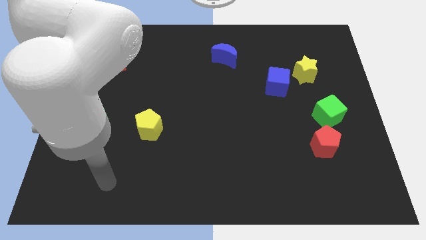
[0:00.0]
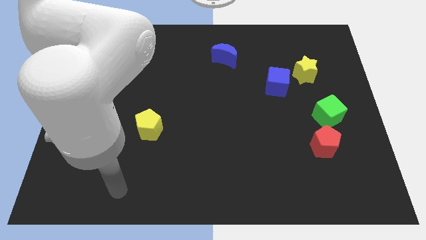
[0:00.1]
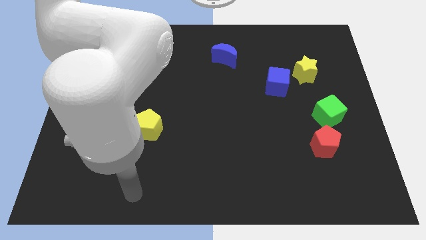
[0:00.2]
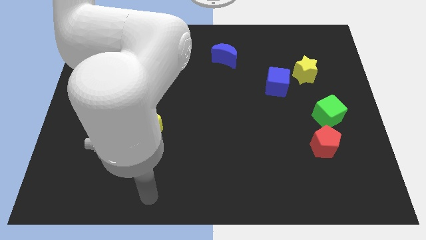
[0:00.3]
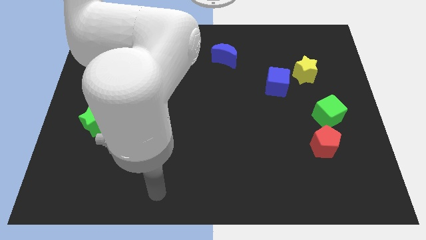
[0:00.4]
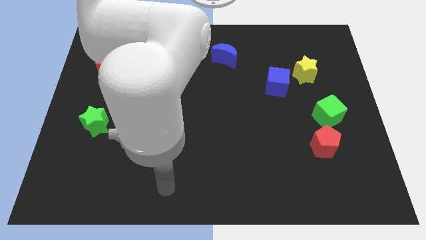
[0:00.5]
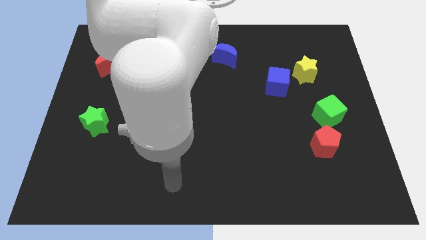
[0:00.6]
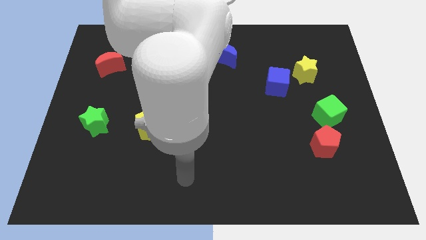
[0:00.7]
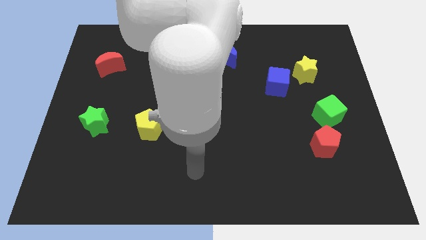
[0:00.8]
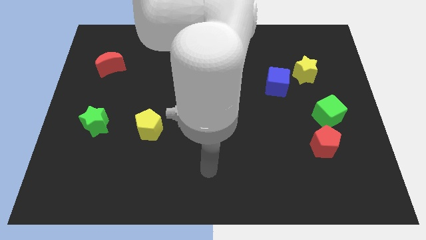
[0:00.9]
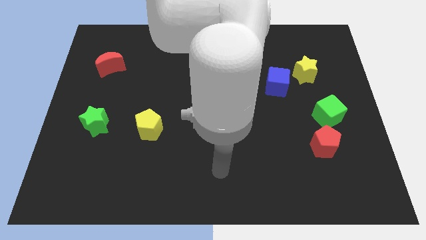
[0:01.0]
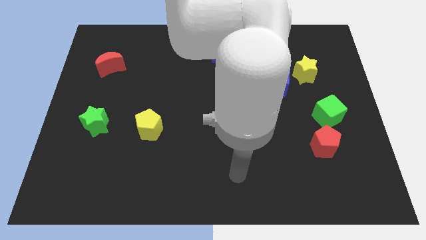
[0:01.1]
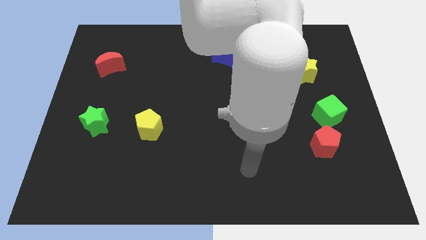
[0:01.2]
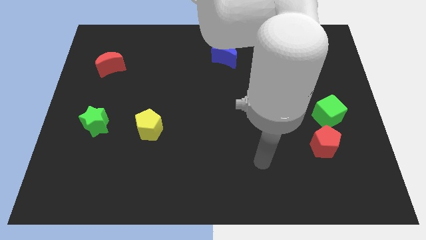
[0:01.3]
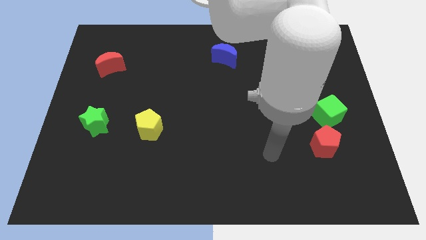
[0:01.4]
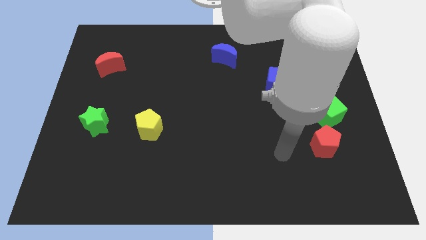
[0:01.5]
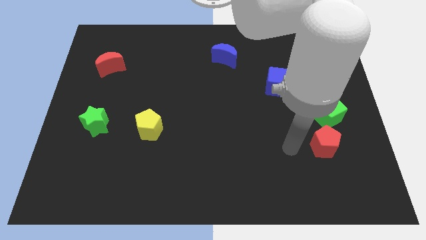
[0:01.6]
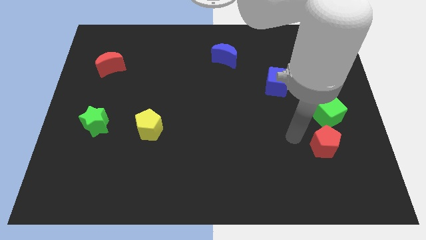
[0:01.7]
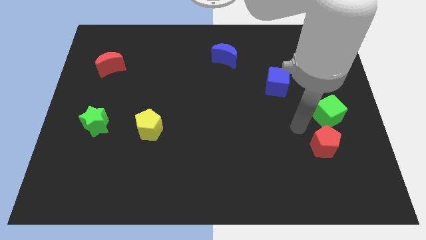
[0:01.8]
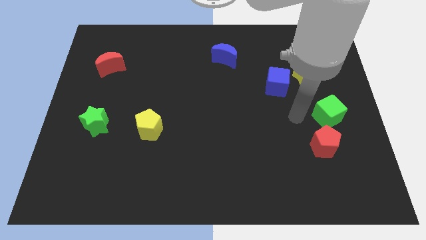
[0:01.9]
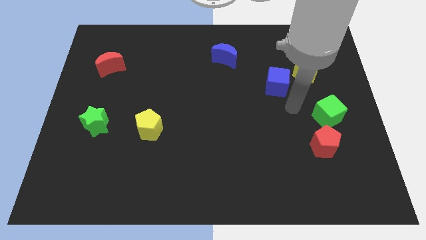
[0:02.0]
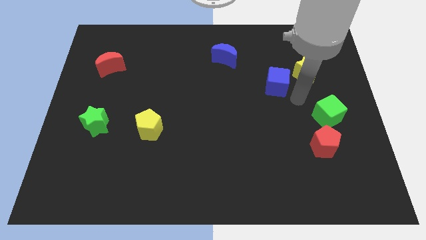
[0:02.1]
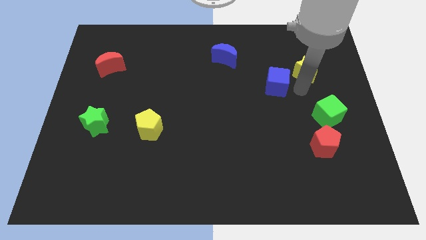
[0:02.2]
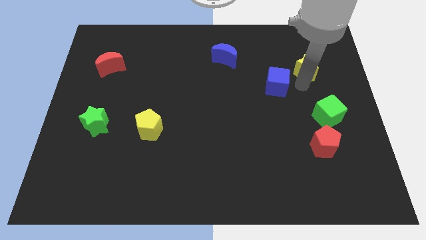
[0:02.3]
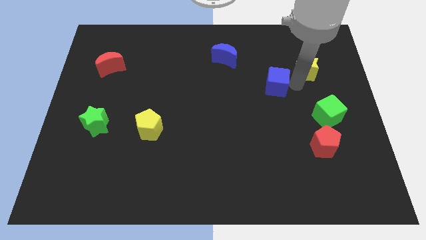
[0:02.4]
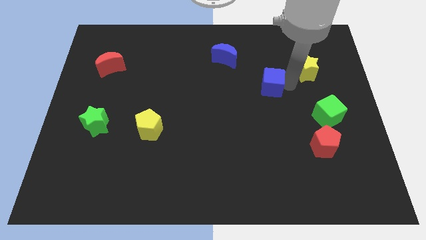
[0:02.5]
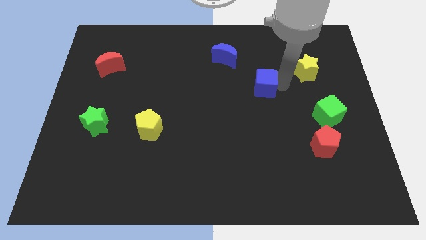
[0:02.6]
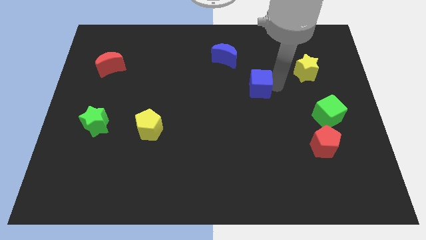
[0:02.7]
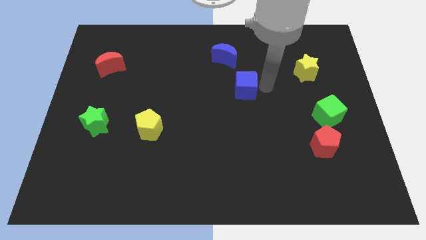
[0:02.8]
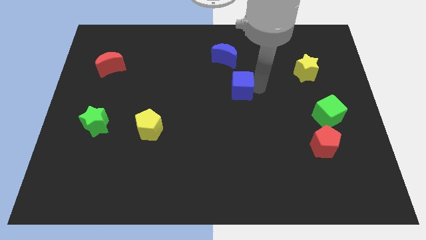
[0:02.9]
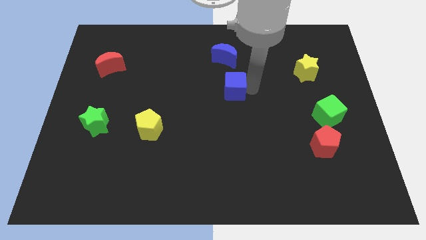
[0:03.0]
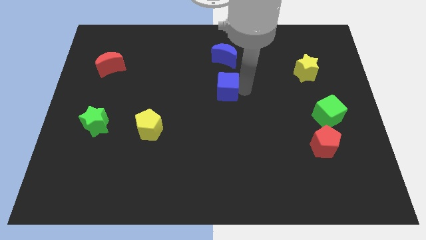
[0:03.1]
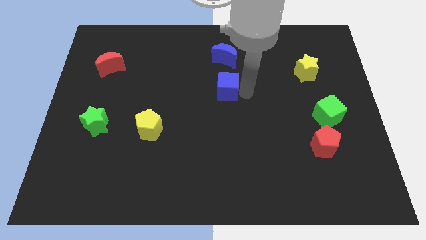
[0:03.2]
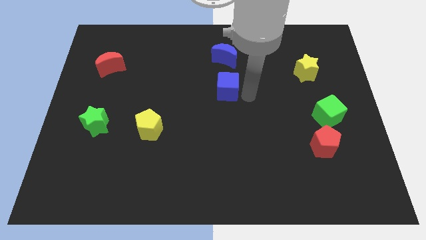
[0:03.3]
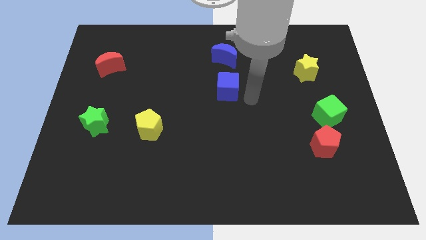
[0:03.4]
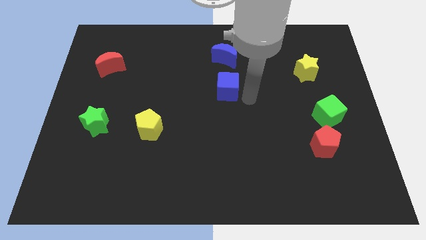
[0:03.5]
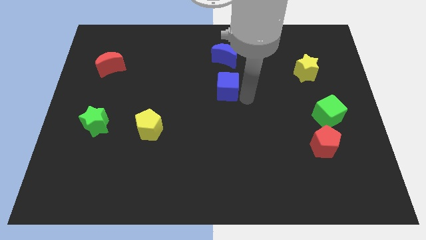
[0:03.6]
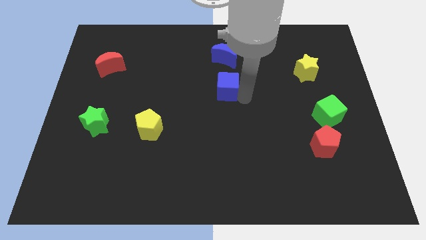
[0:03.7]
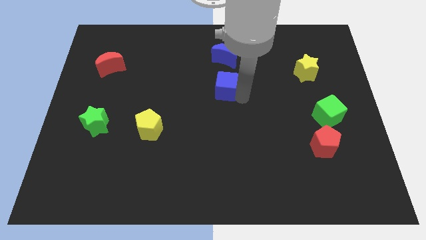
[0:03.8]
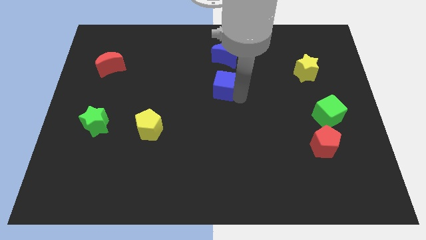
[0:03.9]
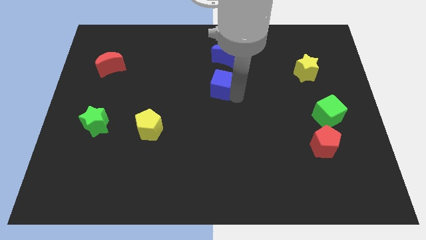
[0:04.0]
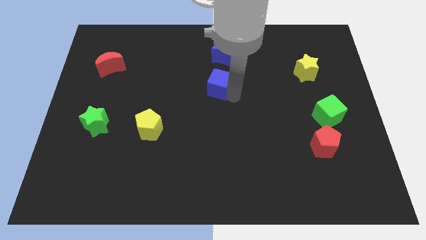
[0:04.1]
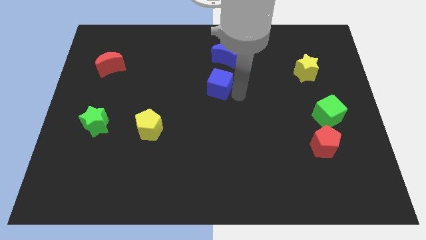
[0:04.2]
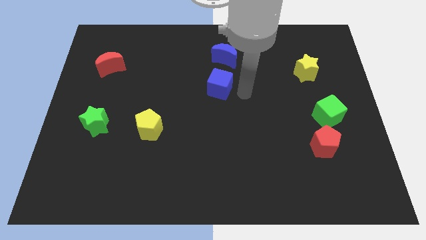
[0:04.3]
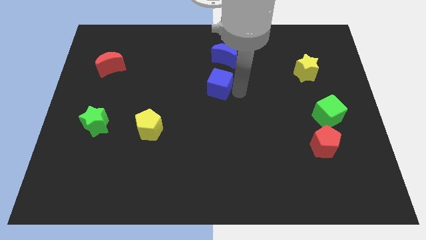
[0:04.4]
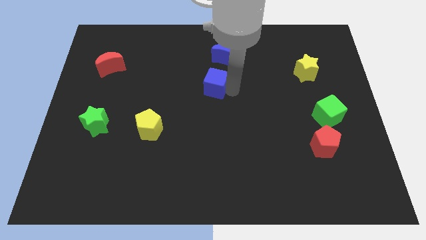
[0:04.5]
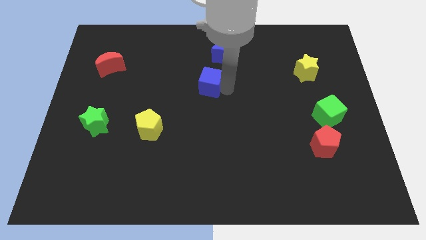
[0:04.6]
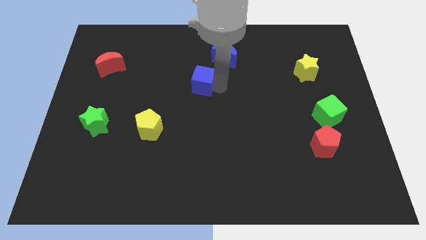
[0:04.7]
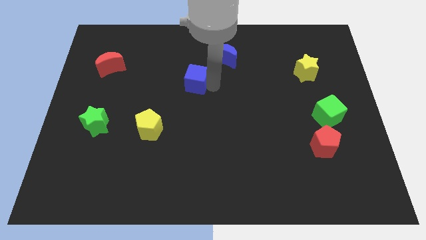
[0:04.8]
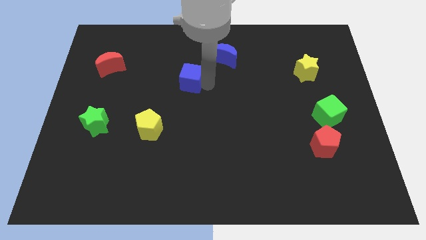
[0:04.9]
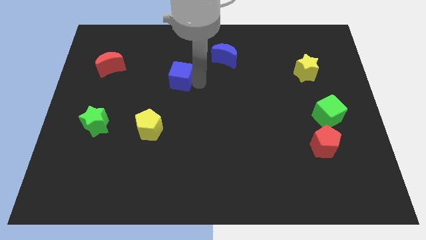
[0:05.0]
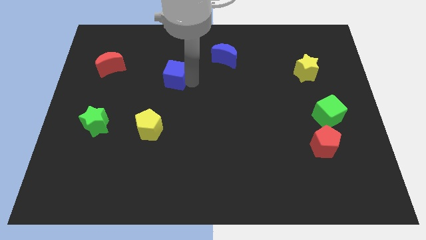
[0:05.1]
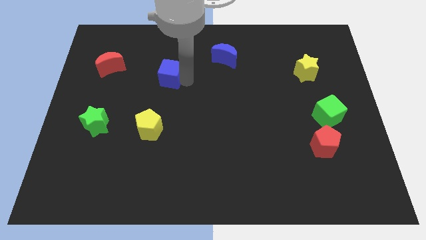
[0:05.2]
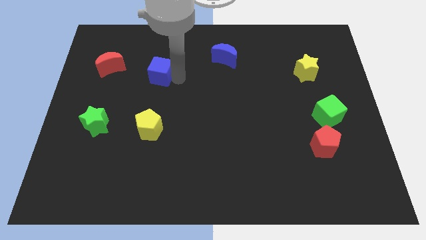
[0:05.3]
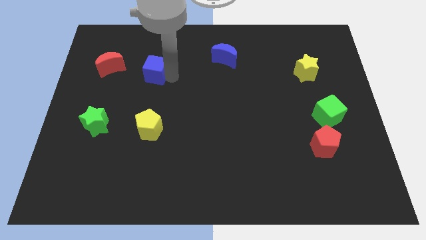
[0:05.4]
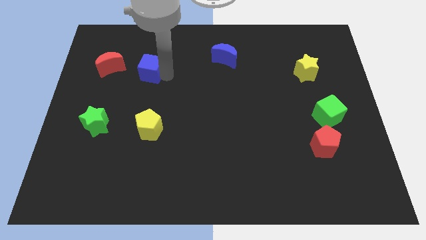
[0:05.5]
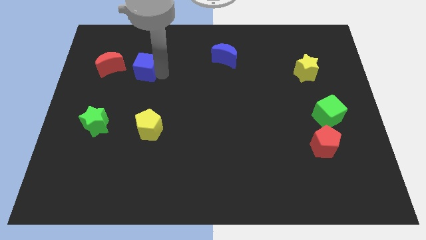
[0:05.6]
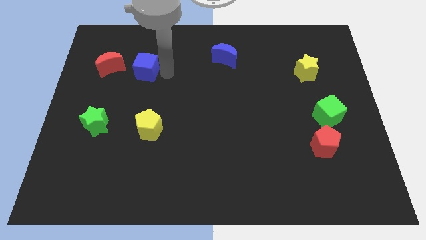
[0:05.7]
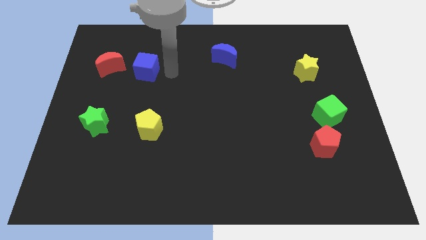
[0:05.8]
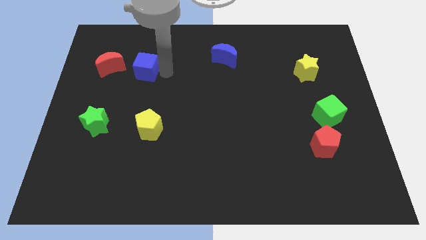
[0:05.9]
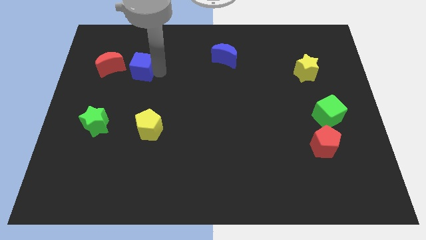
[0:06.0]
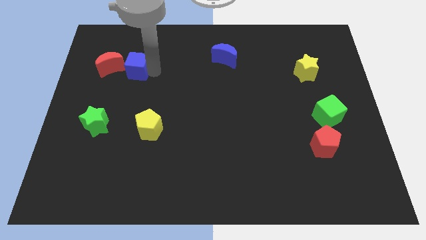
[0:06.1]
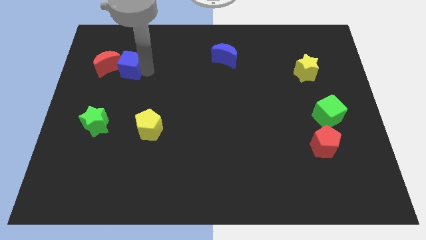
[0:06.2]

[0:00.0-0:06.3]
put the blue cube towards the red moon
